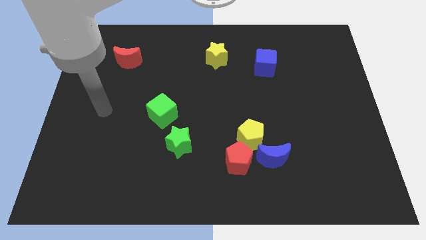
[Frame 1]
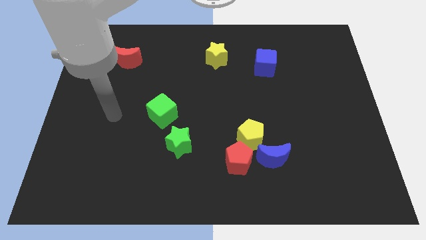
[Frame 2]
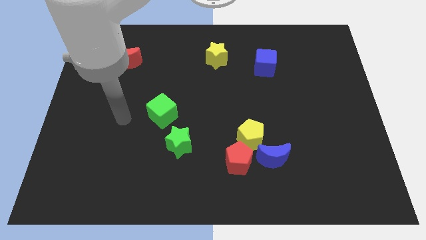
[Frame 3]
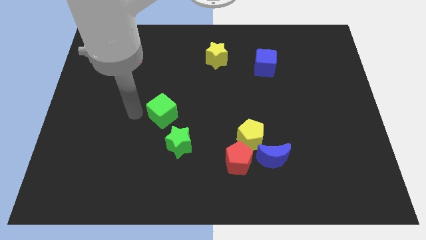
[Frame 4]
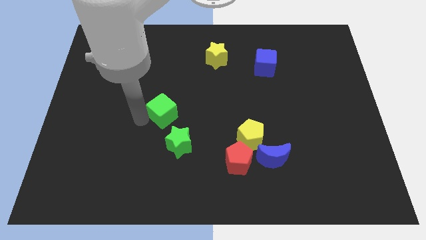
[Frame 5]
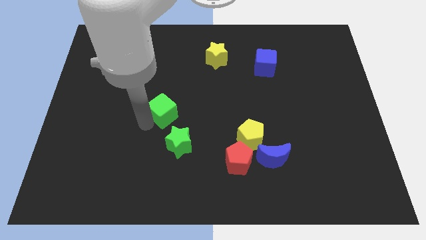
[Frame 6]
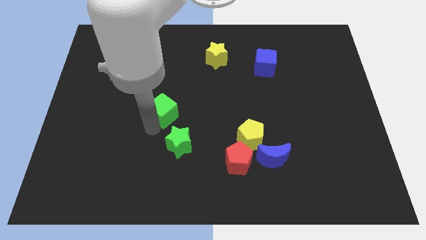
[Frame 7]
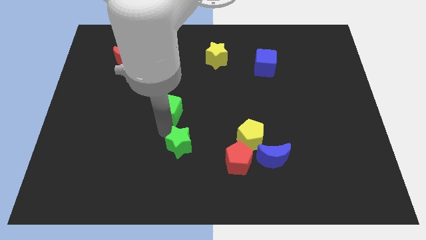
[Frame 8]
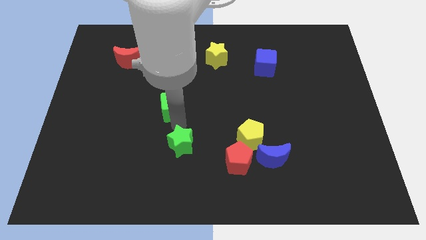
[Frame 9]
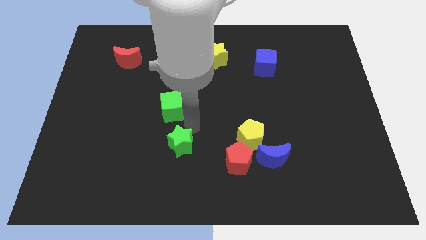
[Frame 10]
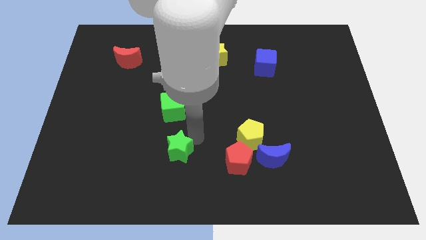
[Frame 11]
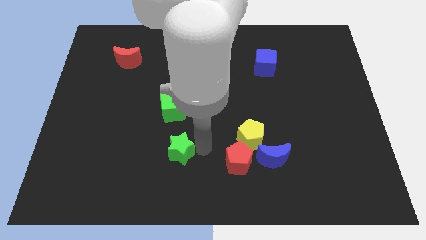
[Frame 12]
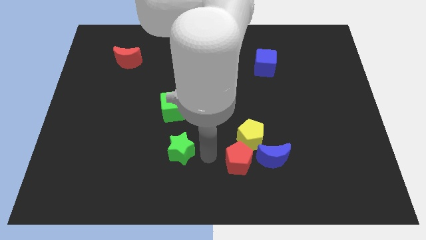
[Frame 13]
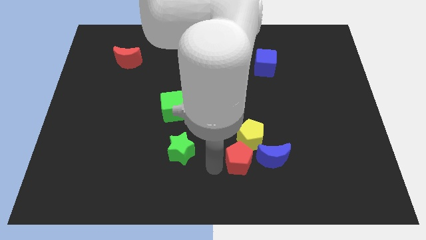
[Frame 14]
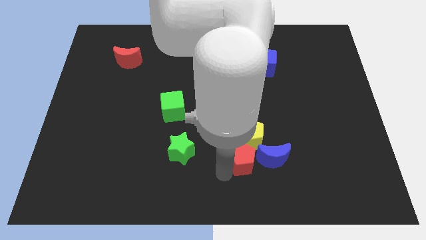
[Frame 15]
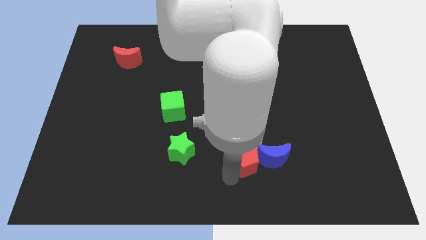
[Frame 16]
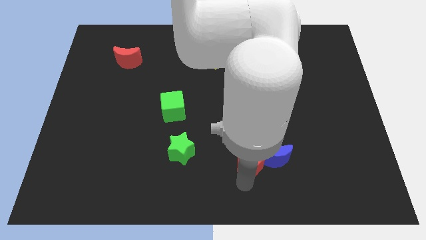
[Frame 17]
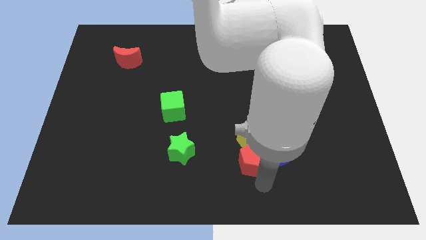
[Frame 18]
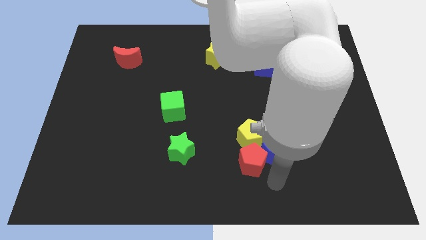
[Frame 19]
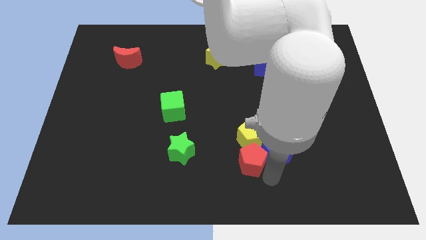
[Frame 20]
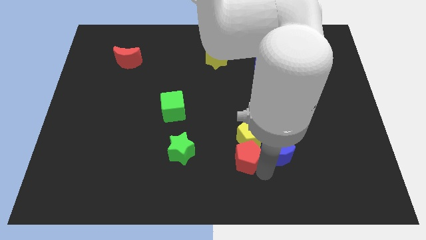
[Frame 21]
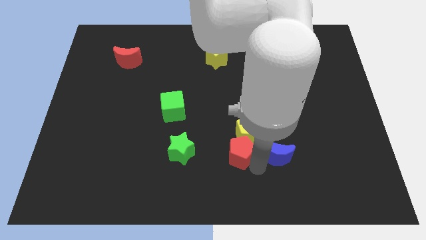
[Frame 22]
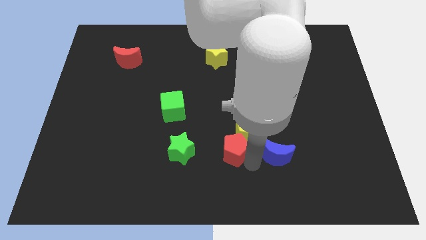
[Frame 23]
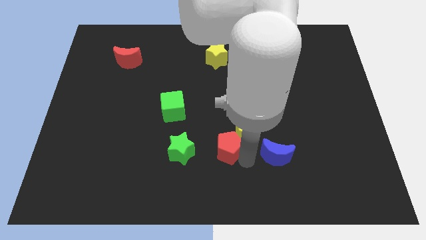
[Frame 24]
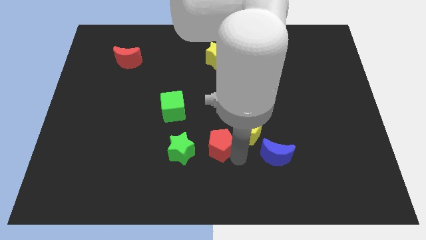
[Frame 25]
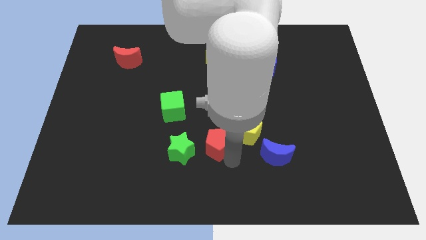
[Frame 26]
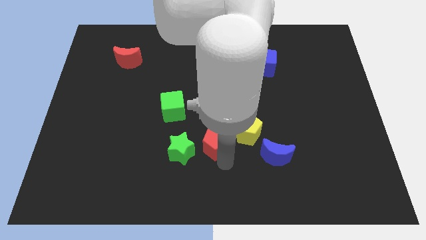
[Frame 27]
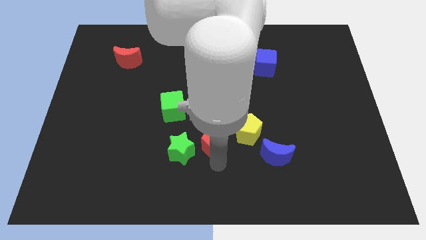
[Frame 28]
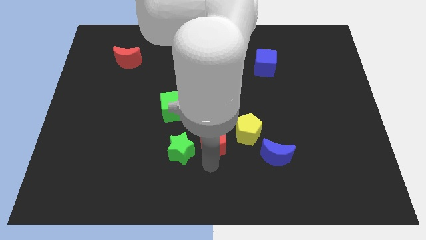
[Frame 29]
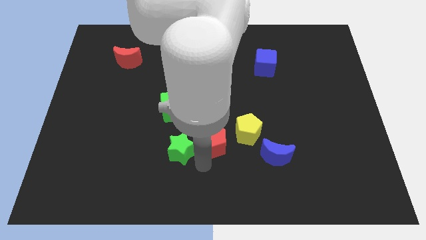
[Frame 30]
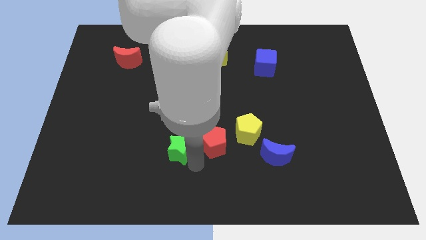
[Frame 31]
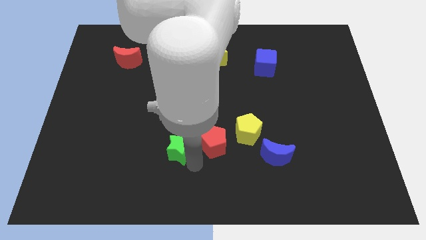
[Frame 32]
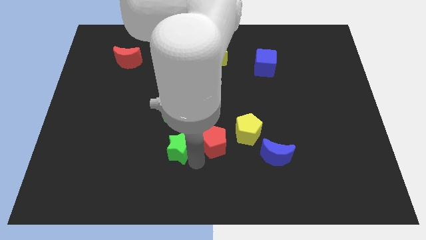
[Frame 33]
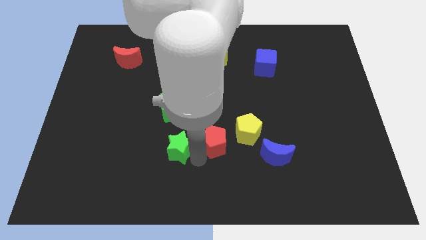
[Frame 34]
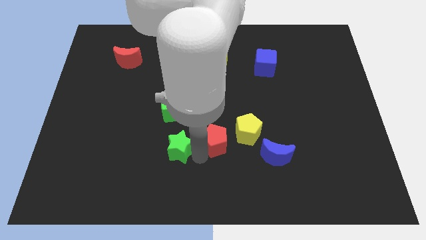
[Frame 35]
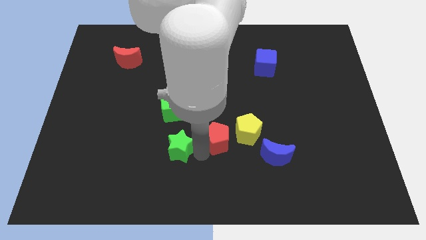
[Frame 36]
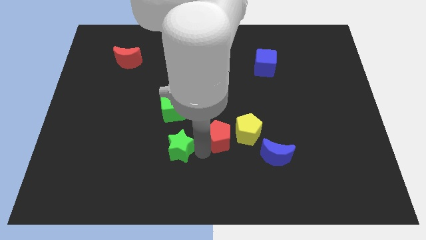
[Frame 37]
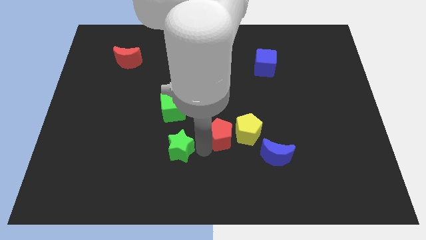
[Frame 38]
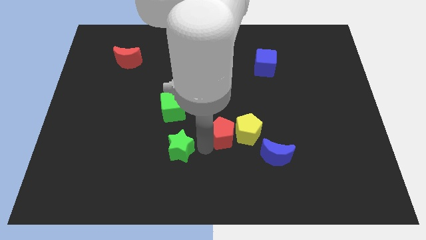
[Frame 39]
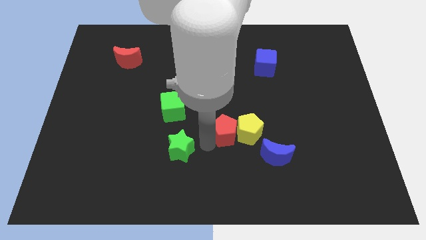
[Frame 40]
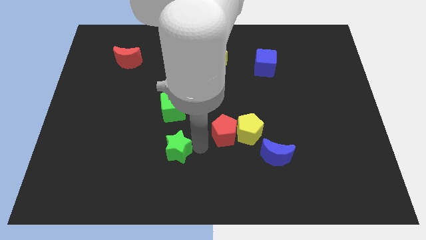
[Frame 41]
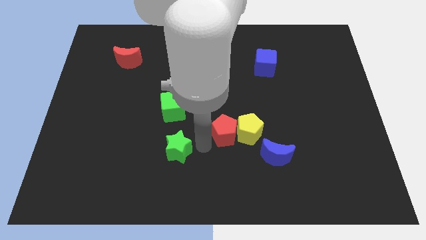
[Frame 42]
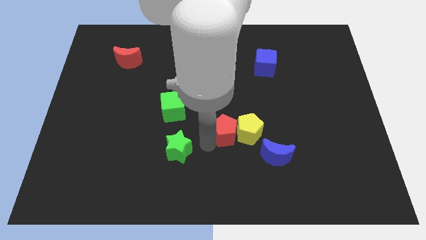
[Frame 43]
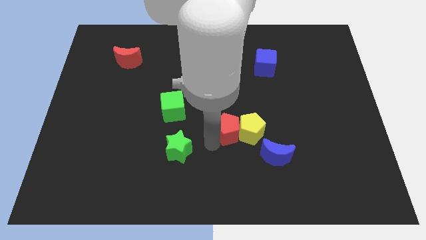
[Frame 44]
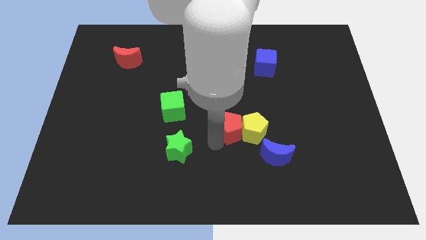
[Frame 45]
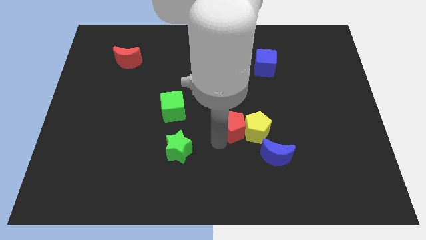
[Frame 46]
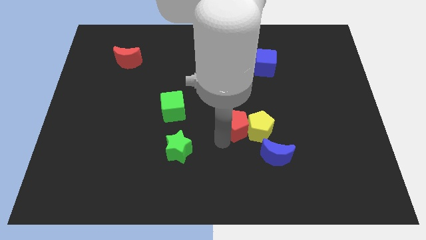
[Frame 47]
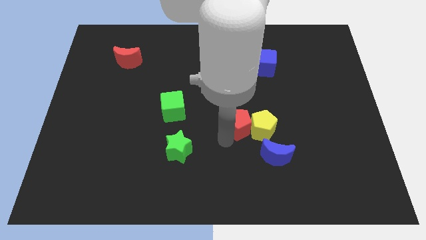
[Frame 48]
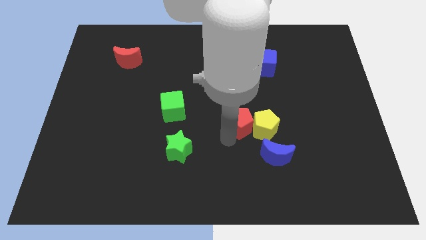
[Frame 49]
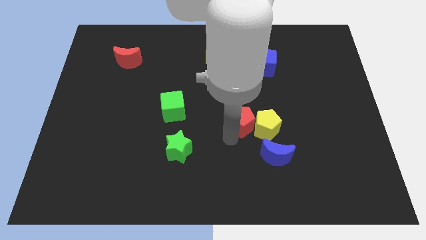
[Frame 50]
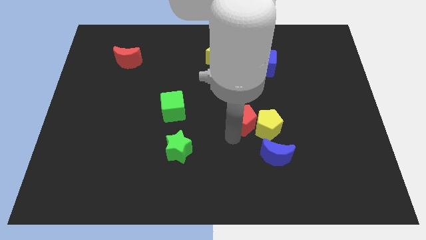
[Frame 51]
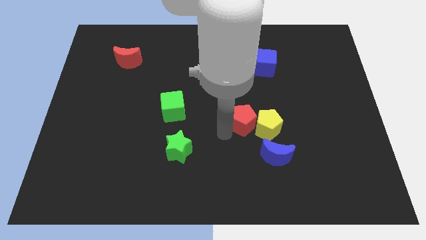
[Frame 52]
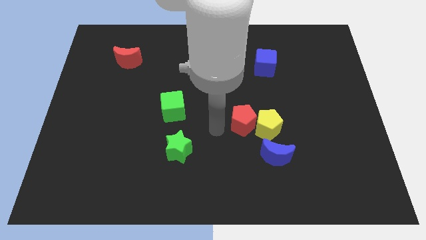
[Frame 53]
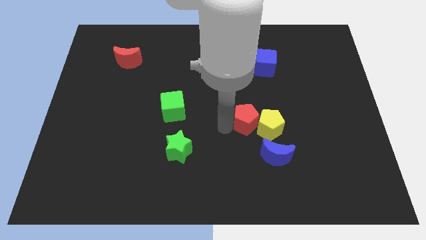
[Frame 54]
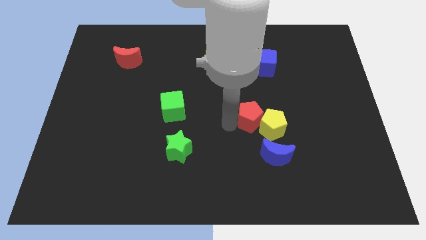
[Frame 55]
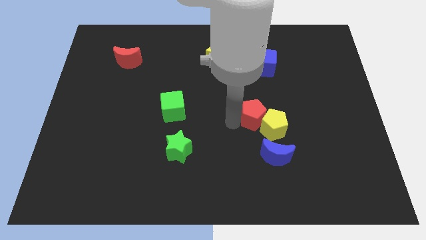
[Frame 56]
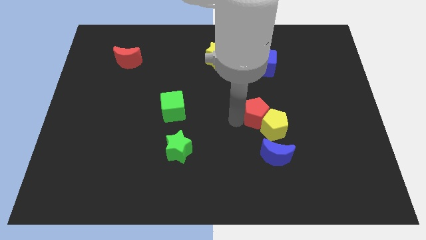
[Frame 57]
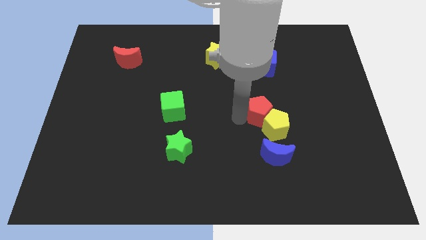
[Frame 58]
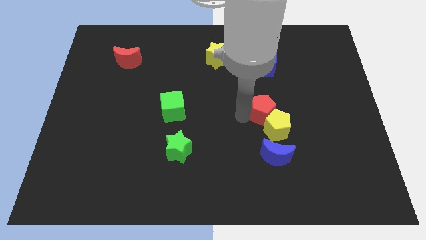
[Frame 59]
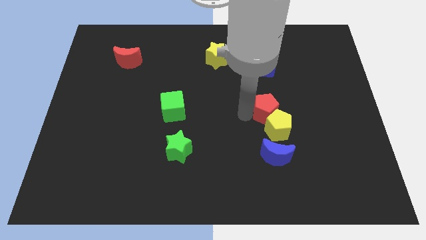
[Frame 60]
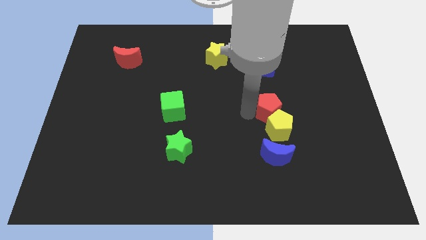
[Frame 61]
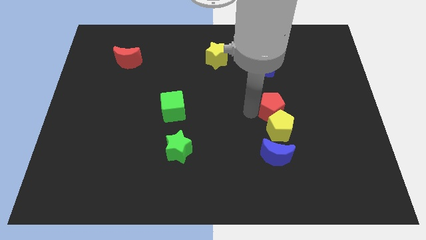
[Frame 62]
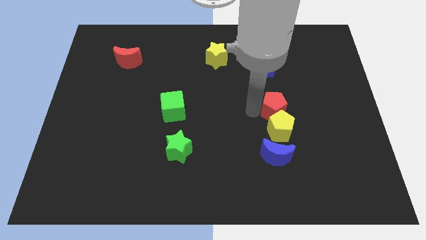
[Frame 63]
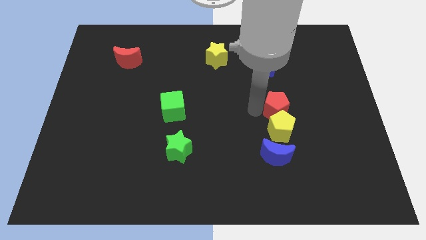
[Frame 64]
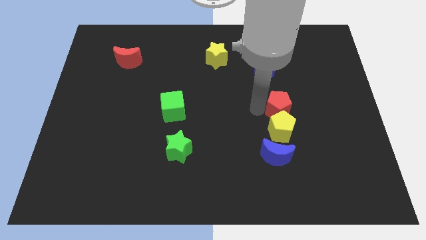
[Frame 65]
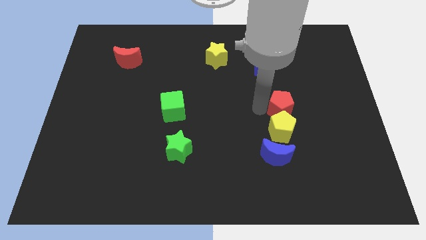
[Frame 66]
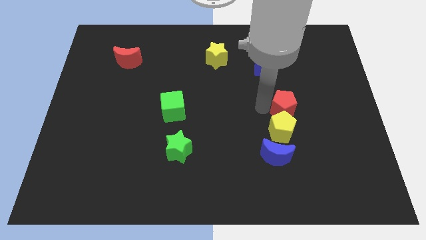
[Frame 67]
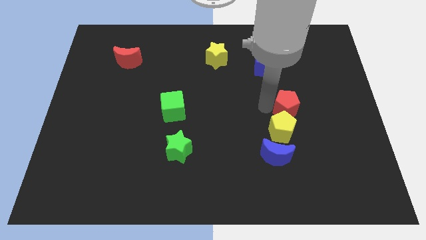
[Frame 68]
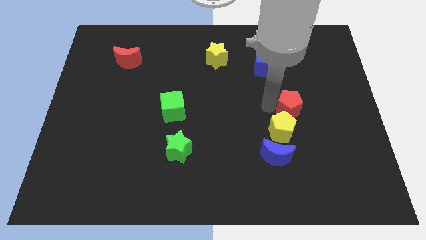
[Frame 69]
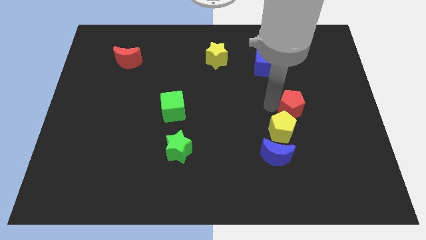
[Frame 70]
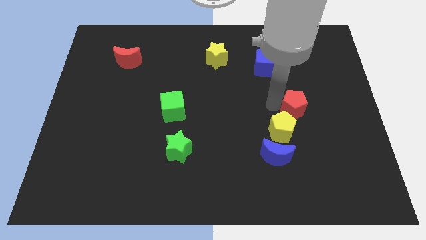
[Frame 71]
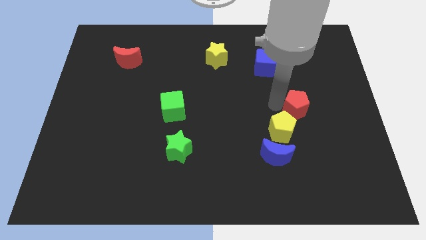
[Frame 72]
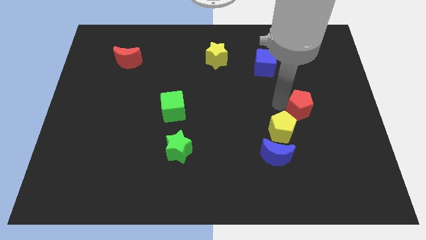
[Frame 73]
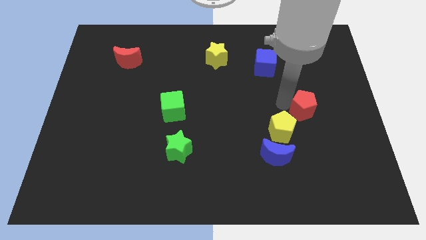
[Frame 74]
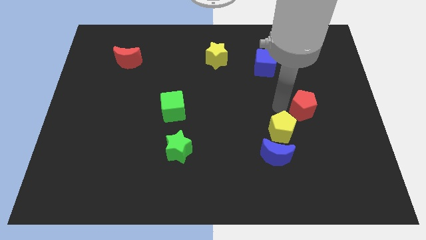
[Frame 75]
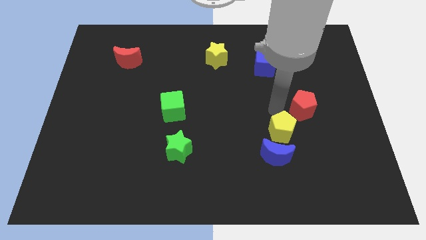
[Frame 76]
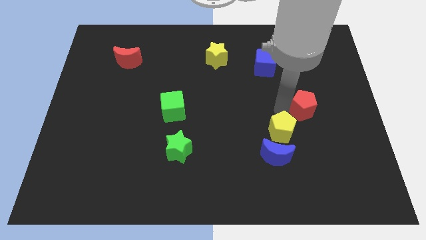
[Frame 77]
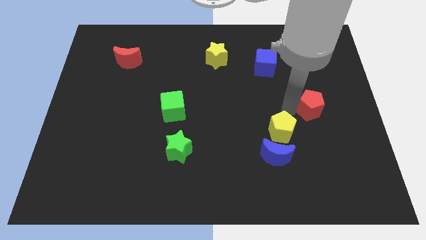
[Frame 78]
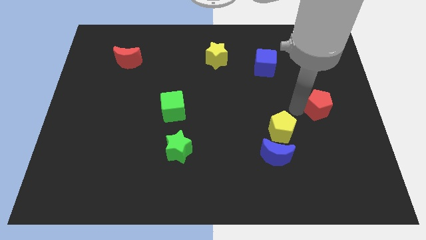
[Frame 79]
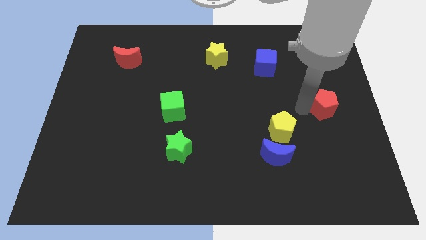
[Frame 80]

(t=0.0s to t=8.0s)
push the red pentagon to the center right
